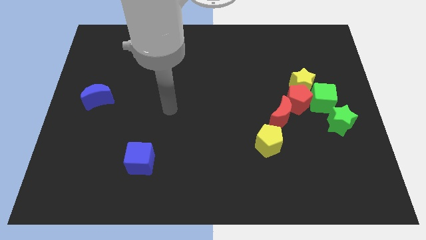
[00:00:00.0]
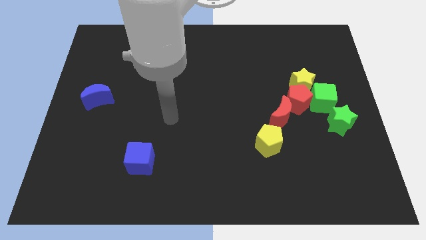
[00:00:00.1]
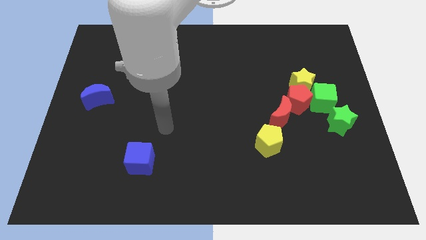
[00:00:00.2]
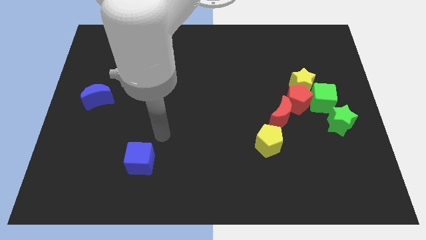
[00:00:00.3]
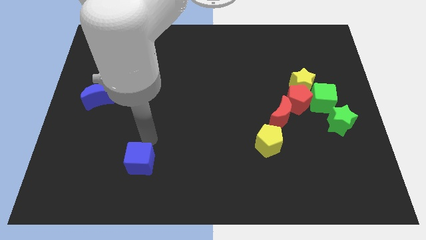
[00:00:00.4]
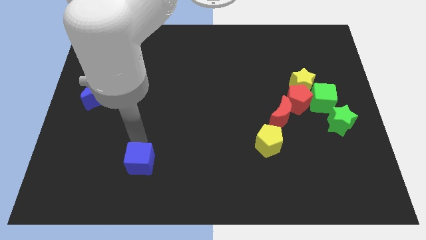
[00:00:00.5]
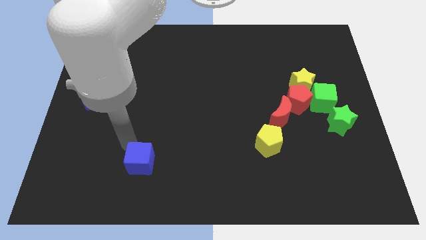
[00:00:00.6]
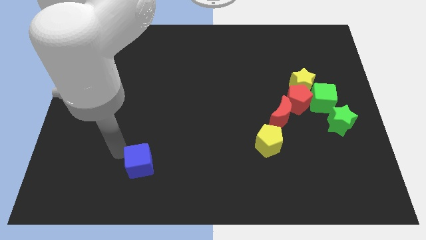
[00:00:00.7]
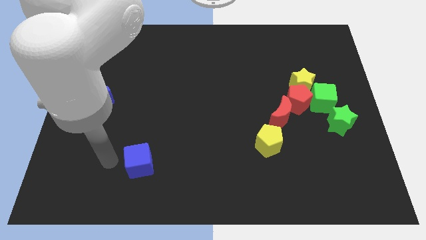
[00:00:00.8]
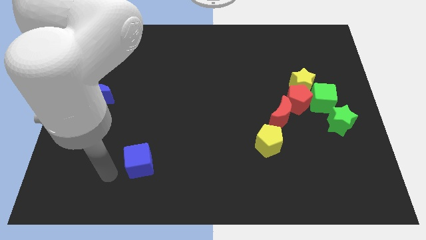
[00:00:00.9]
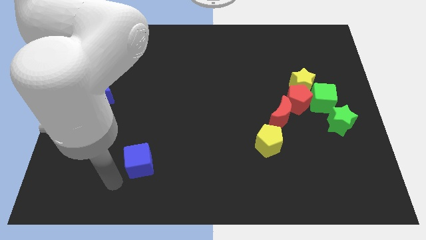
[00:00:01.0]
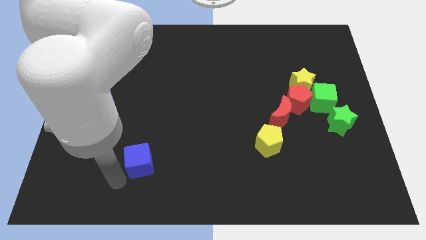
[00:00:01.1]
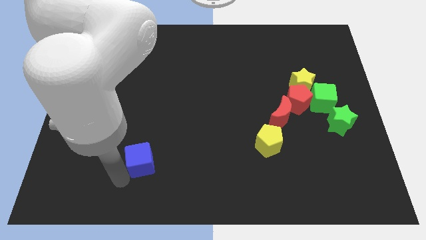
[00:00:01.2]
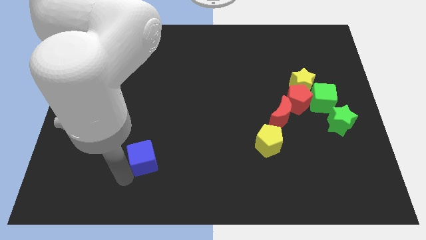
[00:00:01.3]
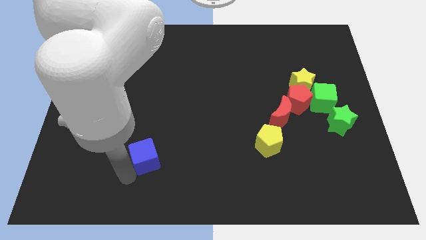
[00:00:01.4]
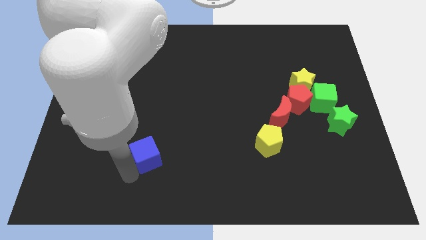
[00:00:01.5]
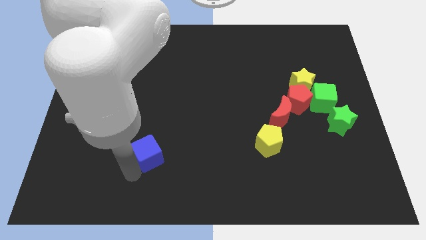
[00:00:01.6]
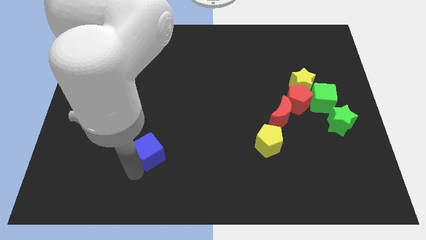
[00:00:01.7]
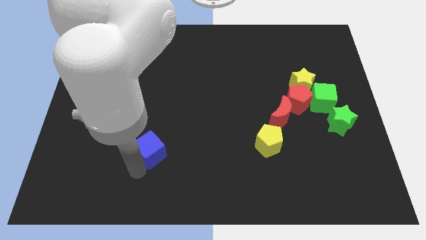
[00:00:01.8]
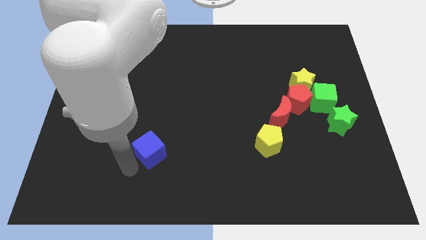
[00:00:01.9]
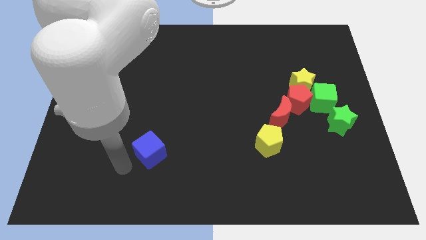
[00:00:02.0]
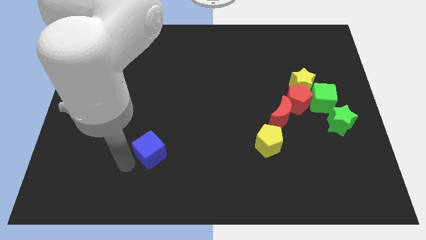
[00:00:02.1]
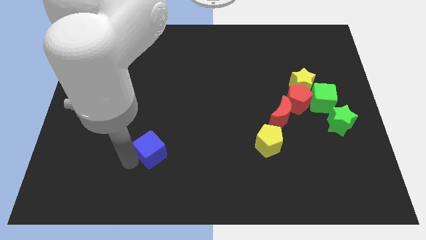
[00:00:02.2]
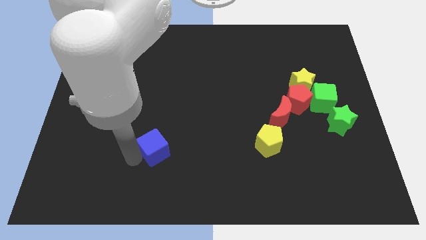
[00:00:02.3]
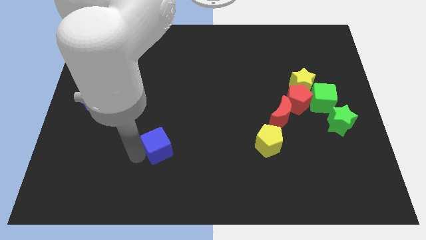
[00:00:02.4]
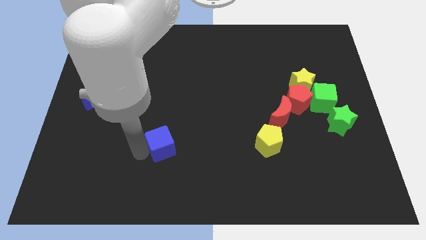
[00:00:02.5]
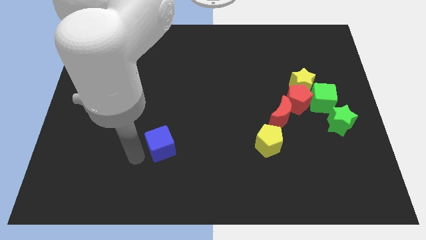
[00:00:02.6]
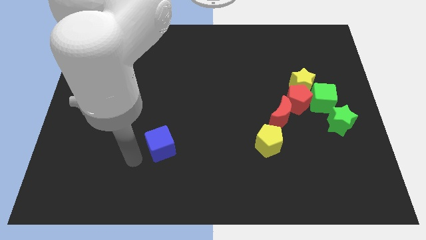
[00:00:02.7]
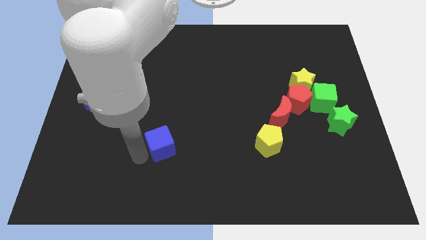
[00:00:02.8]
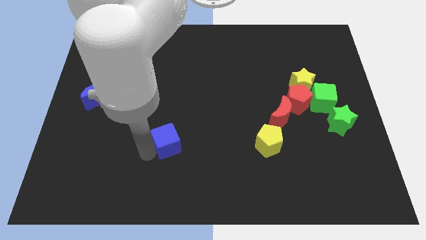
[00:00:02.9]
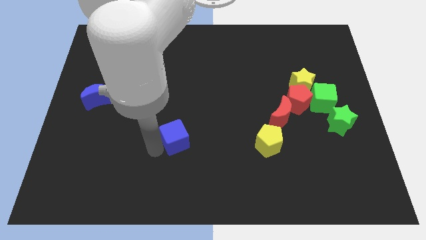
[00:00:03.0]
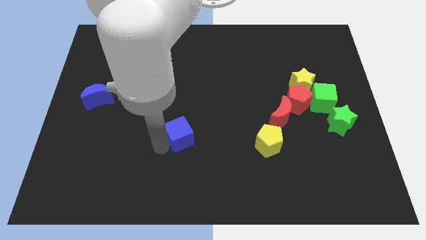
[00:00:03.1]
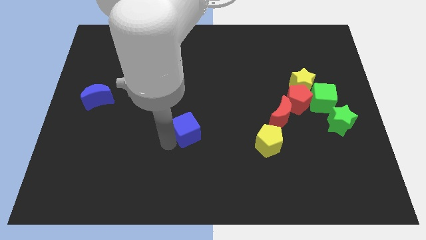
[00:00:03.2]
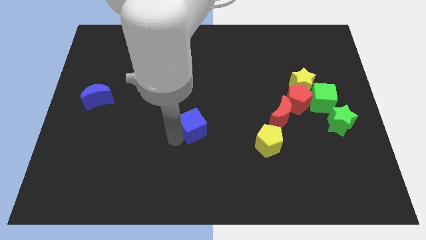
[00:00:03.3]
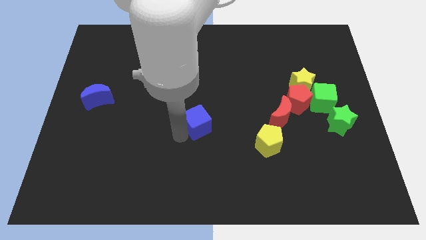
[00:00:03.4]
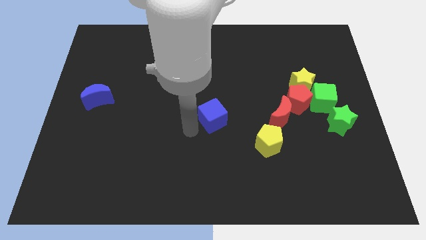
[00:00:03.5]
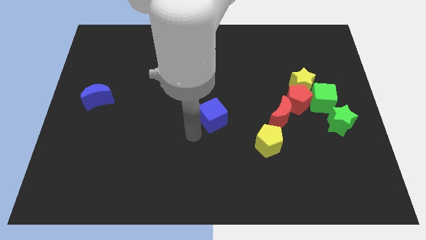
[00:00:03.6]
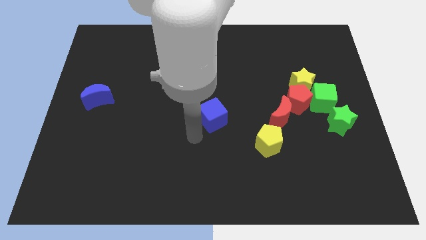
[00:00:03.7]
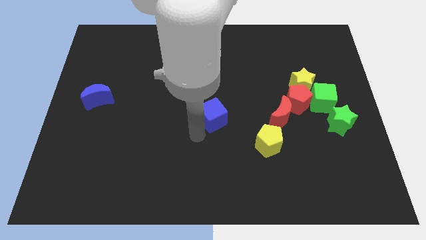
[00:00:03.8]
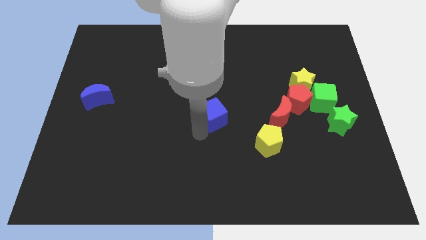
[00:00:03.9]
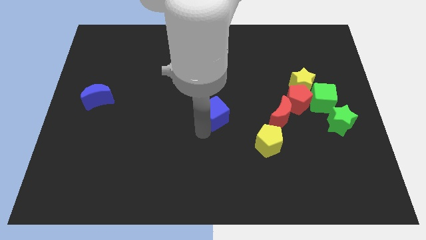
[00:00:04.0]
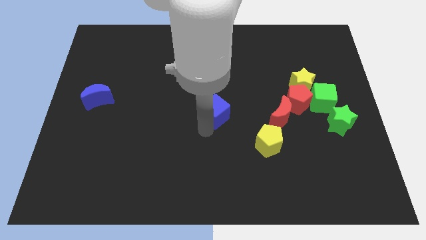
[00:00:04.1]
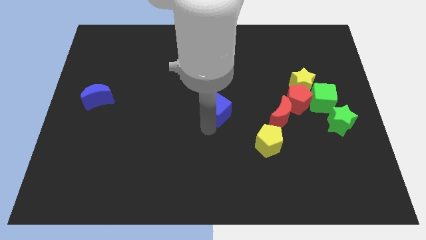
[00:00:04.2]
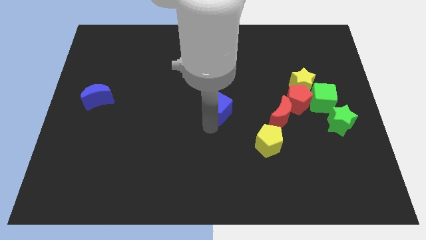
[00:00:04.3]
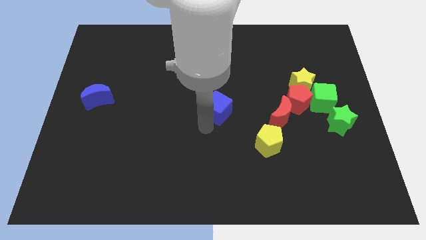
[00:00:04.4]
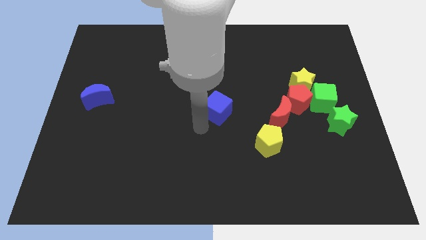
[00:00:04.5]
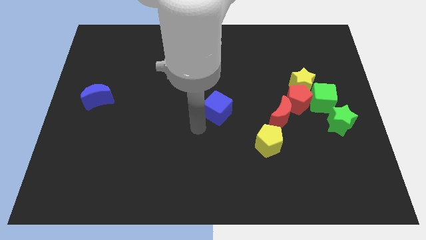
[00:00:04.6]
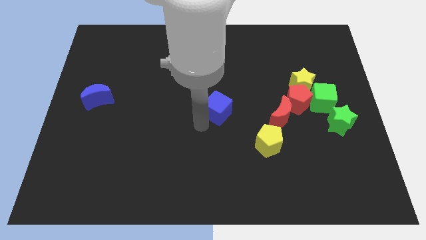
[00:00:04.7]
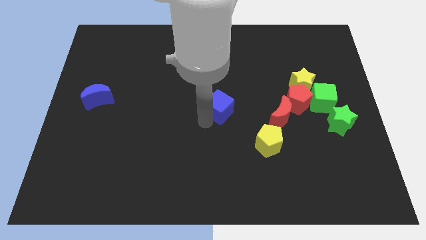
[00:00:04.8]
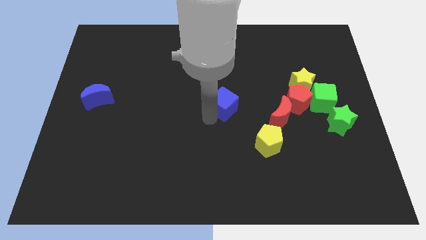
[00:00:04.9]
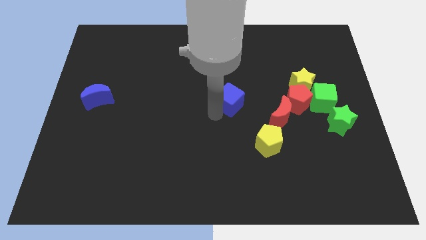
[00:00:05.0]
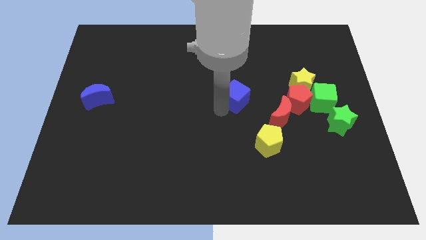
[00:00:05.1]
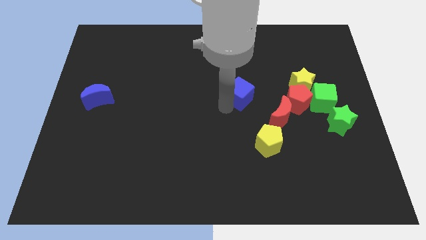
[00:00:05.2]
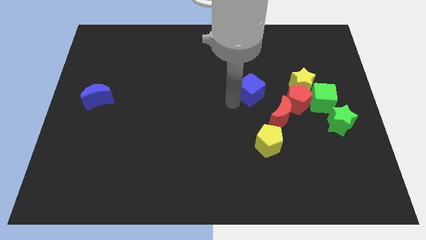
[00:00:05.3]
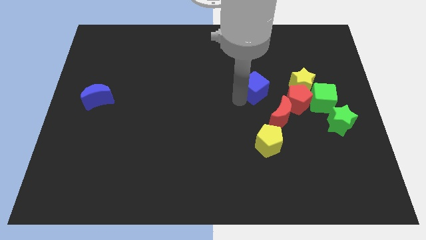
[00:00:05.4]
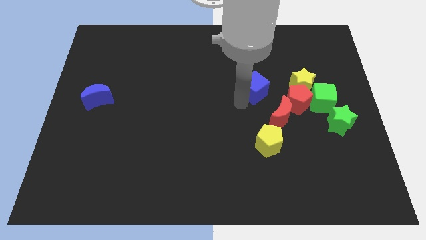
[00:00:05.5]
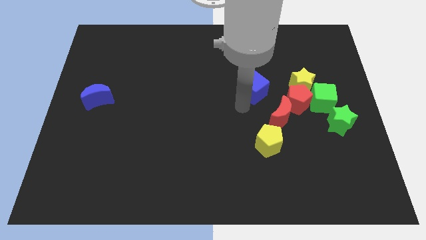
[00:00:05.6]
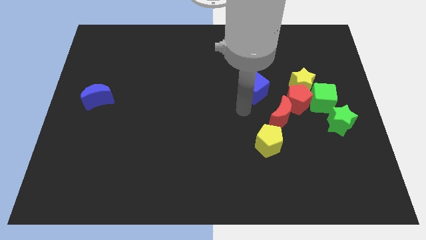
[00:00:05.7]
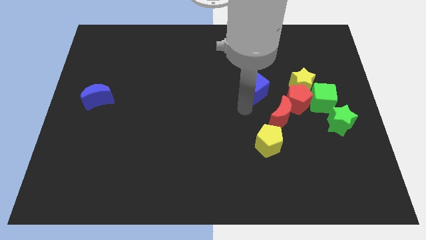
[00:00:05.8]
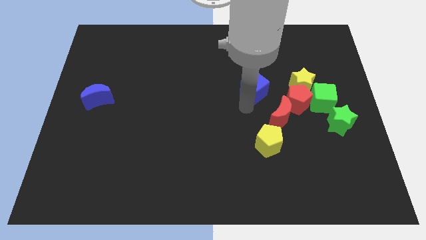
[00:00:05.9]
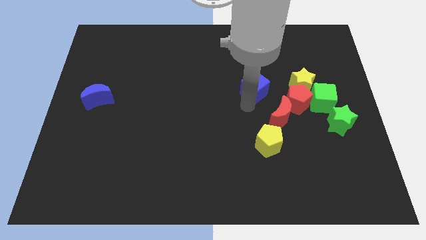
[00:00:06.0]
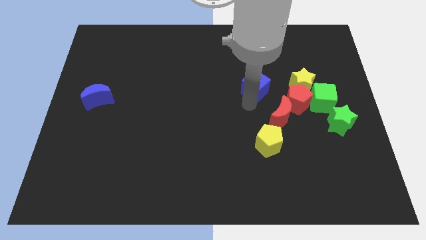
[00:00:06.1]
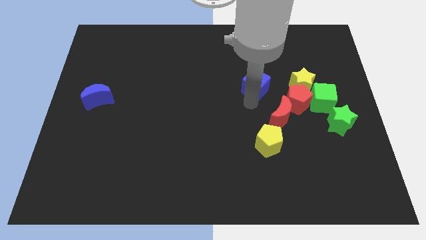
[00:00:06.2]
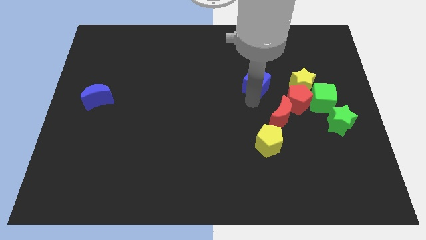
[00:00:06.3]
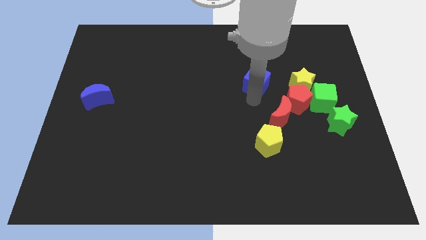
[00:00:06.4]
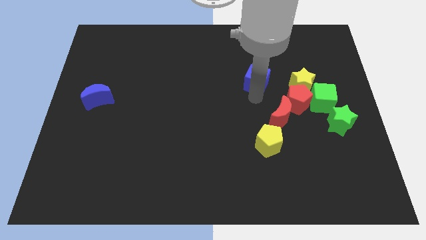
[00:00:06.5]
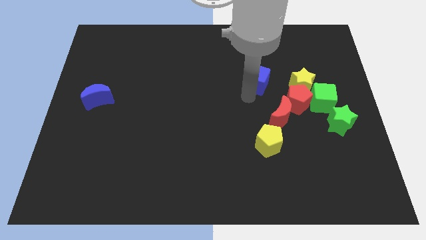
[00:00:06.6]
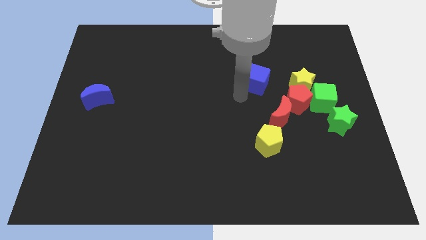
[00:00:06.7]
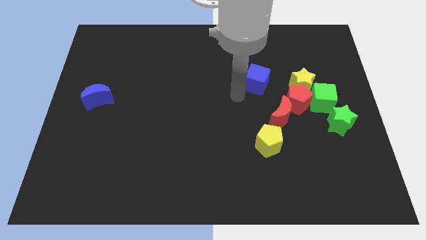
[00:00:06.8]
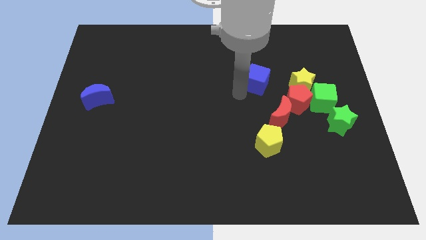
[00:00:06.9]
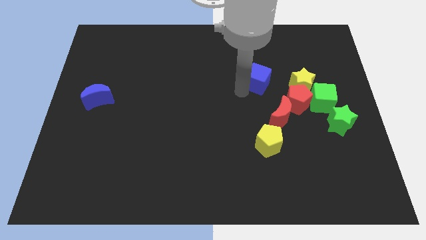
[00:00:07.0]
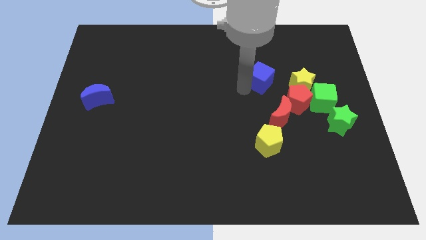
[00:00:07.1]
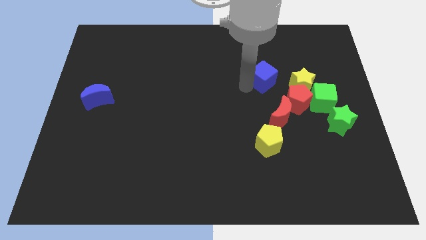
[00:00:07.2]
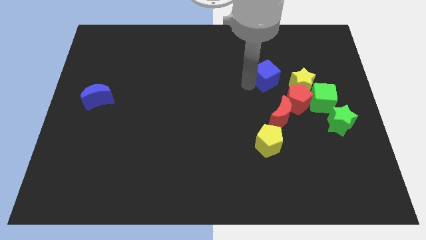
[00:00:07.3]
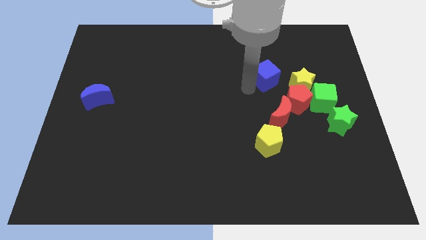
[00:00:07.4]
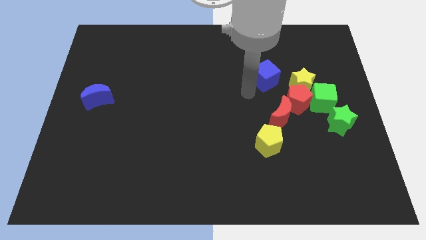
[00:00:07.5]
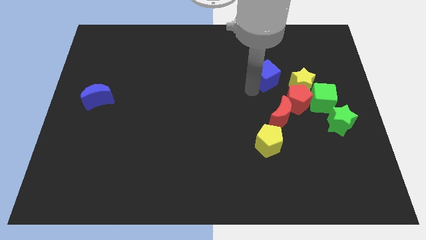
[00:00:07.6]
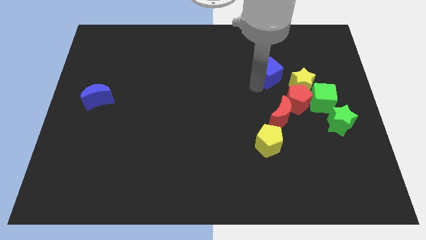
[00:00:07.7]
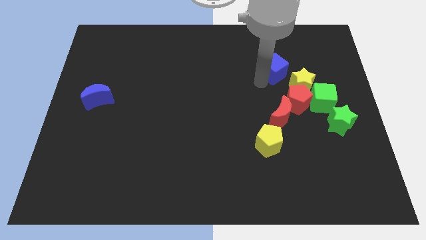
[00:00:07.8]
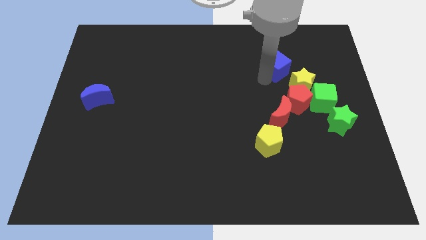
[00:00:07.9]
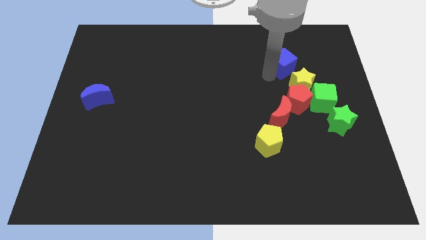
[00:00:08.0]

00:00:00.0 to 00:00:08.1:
slide the blue cube to the top of the yellow star
